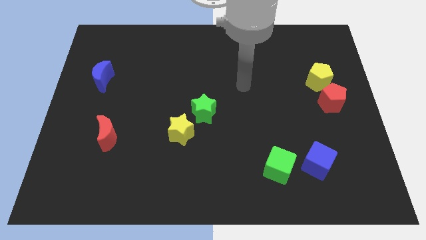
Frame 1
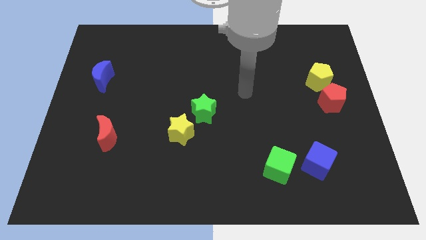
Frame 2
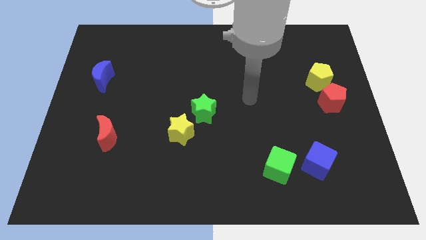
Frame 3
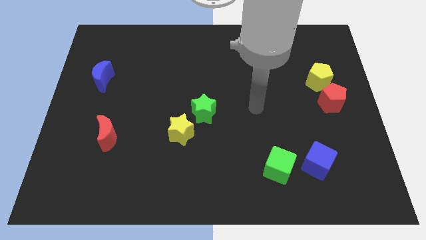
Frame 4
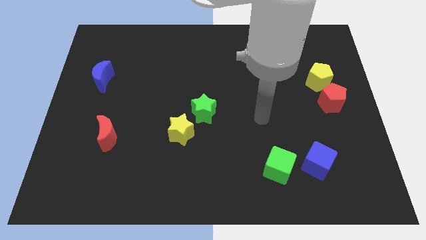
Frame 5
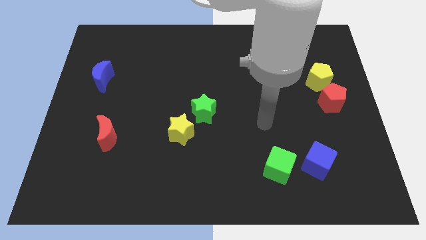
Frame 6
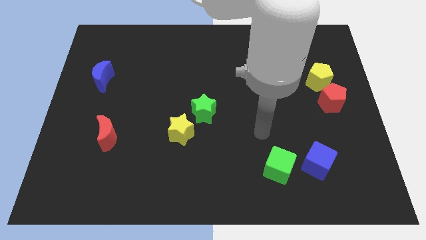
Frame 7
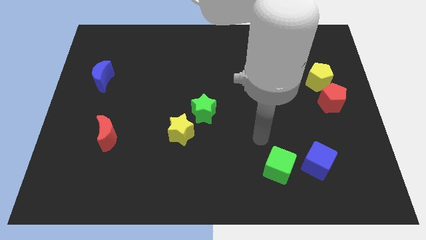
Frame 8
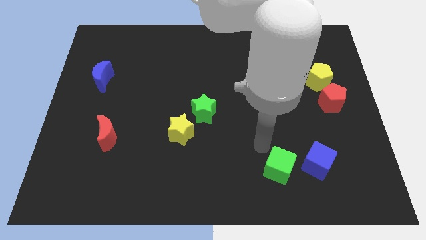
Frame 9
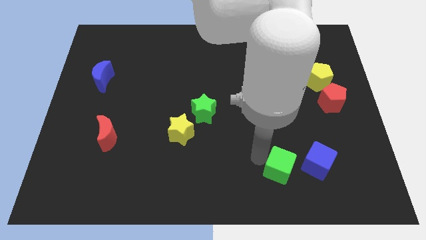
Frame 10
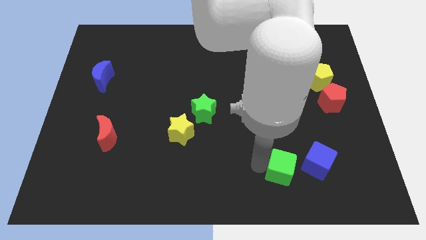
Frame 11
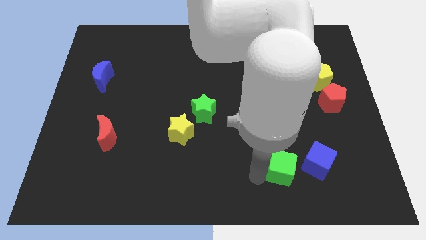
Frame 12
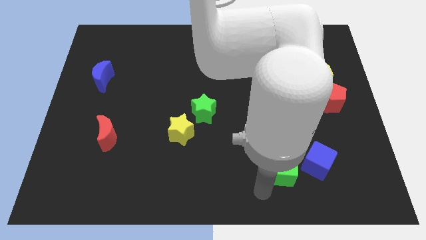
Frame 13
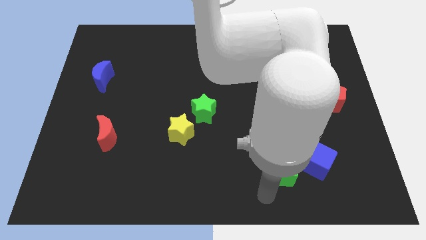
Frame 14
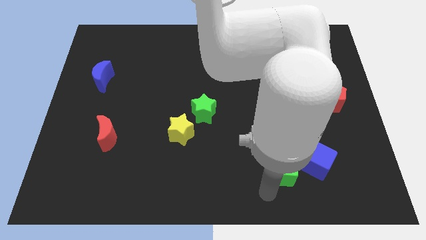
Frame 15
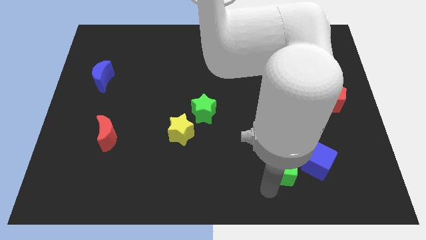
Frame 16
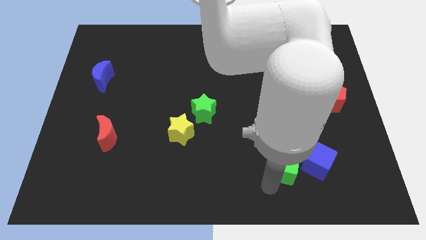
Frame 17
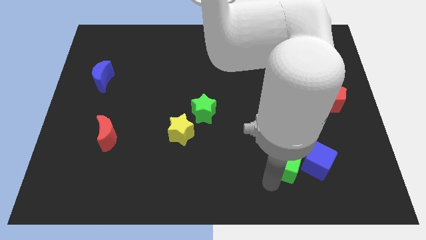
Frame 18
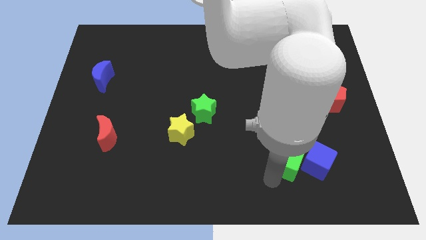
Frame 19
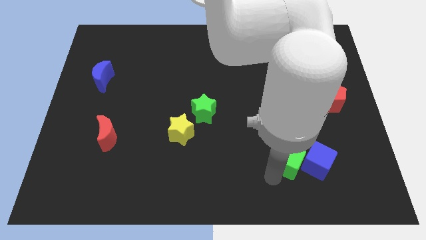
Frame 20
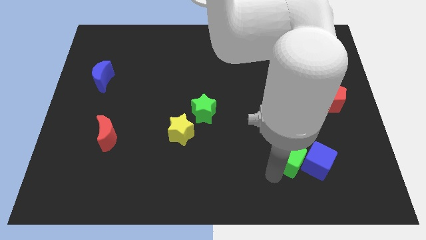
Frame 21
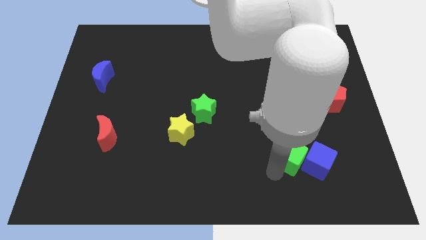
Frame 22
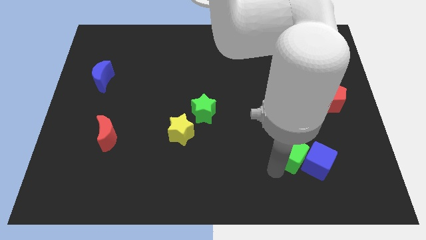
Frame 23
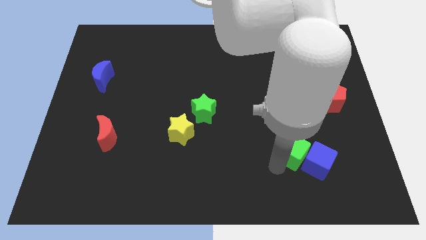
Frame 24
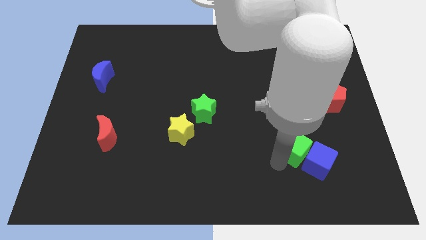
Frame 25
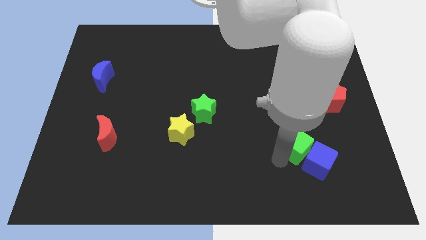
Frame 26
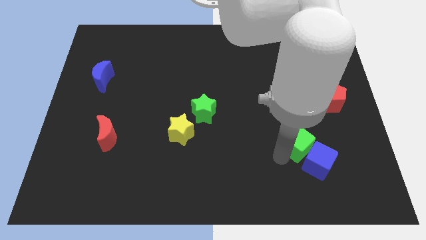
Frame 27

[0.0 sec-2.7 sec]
push the green cube somewhat up and to the right

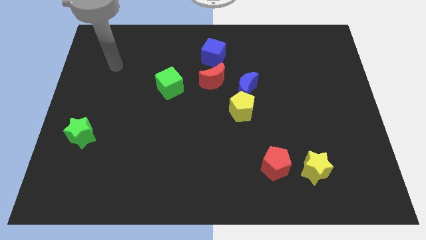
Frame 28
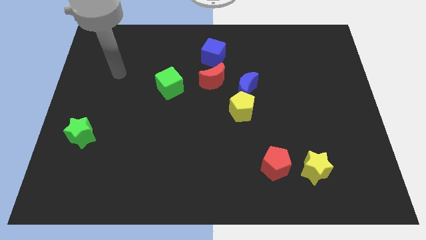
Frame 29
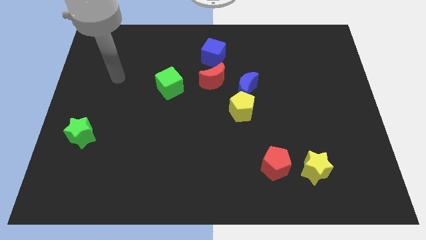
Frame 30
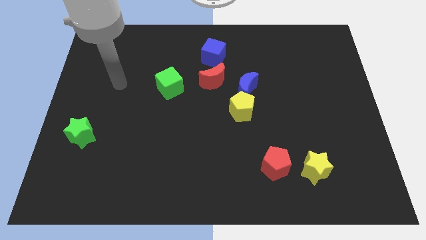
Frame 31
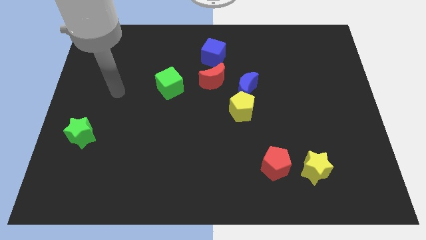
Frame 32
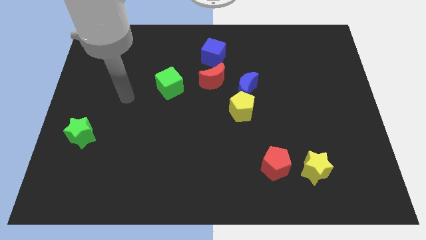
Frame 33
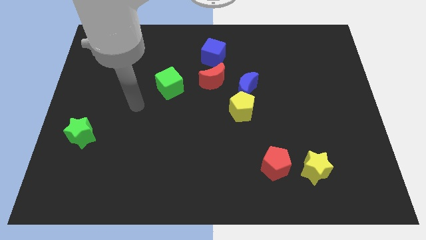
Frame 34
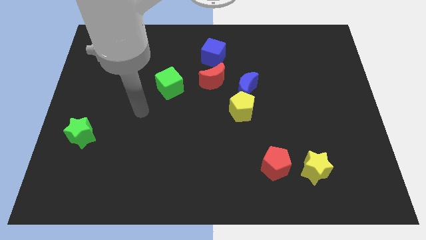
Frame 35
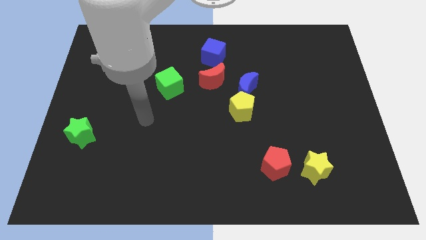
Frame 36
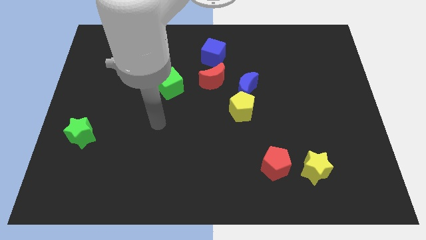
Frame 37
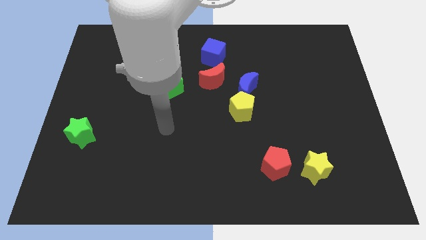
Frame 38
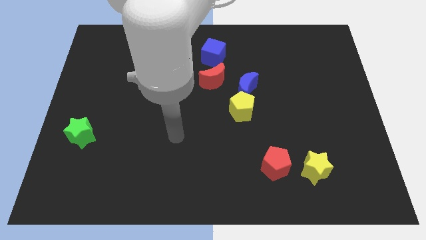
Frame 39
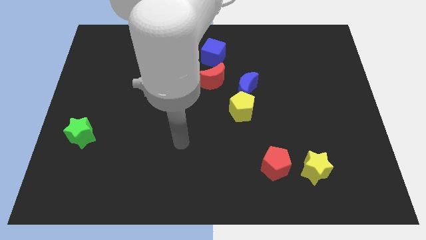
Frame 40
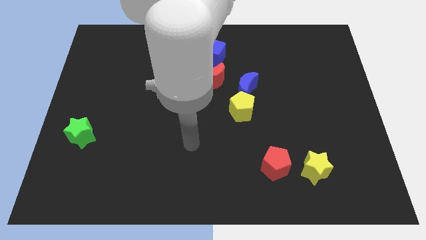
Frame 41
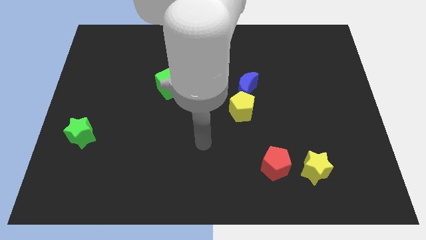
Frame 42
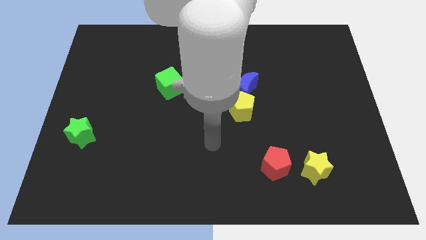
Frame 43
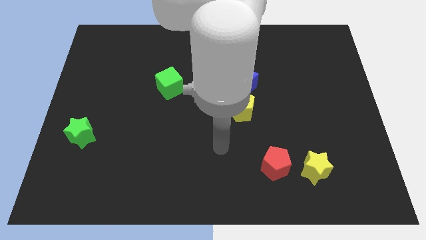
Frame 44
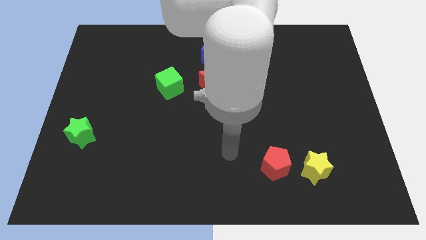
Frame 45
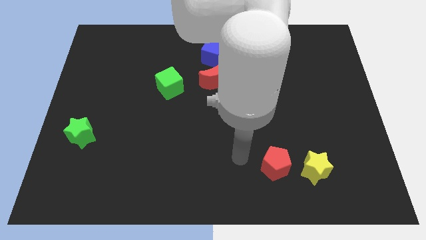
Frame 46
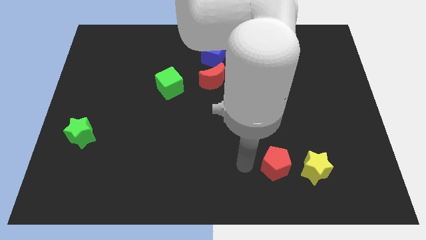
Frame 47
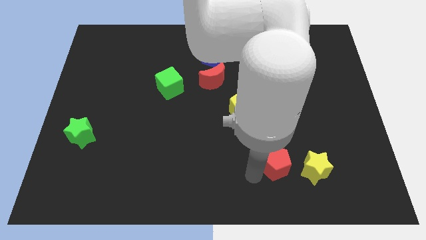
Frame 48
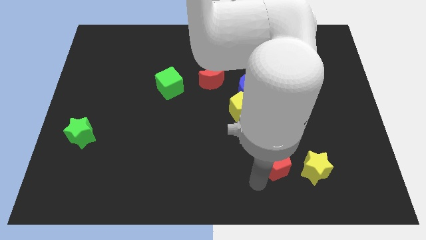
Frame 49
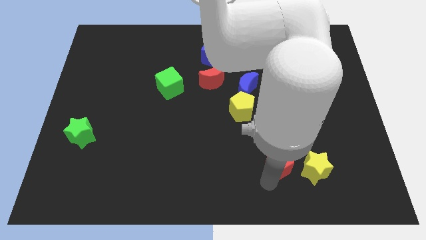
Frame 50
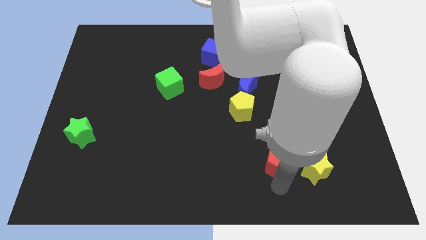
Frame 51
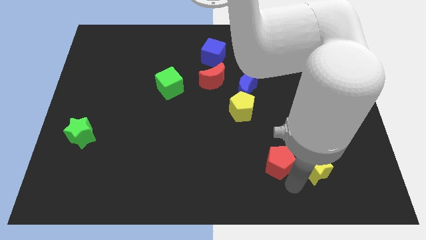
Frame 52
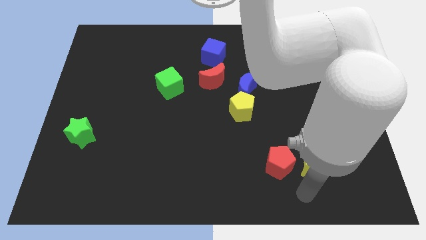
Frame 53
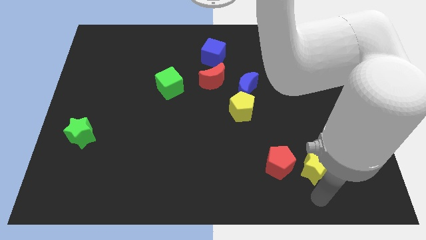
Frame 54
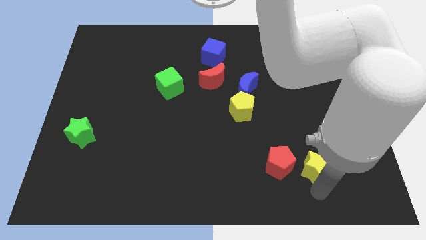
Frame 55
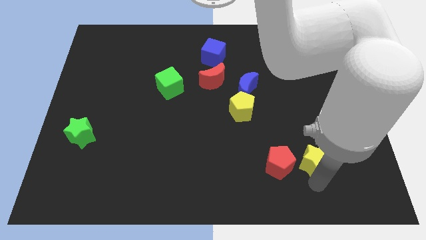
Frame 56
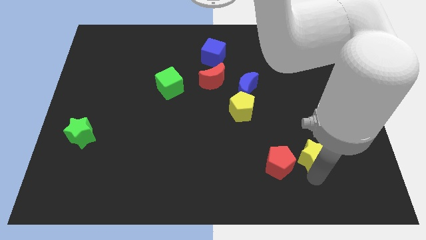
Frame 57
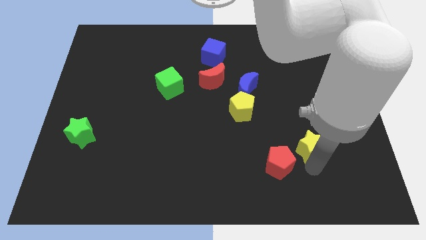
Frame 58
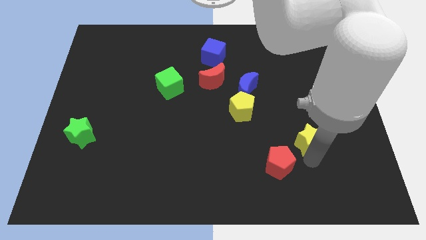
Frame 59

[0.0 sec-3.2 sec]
push the yellow star a little upwards

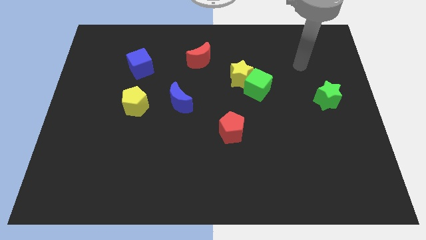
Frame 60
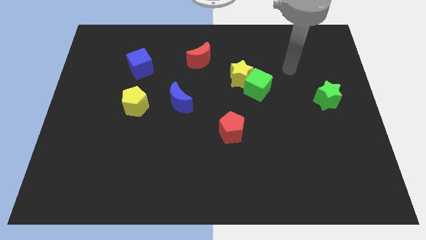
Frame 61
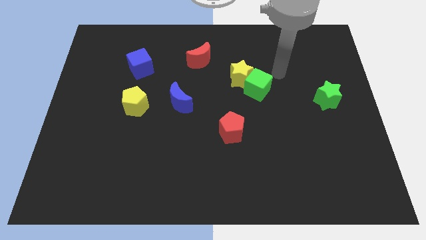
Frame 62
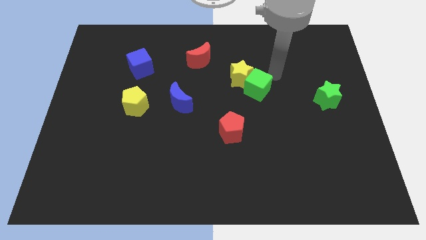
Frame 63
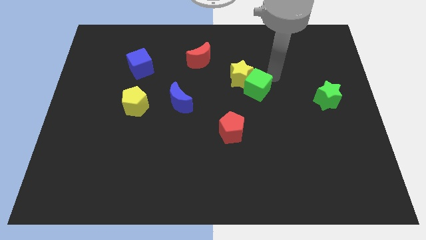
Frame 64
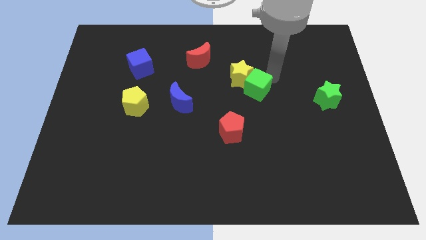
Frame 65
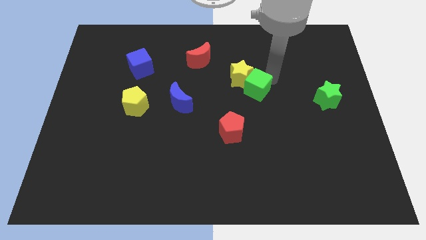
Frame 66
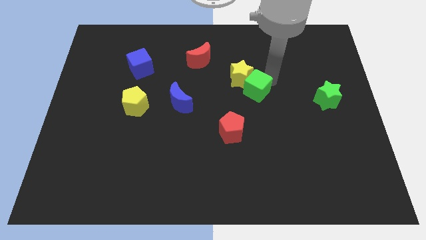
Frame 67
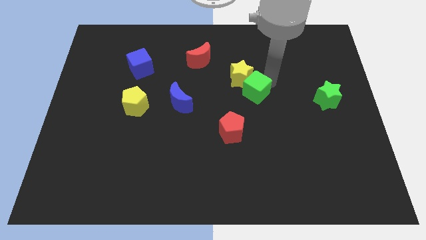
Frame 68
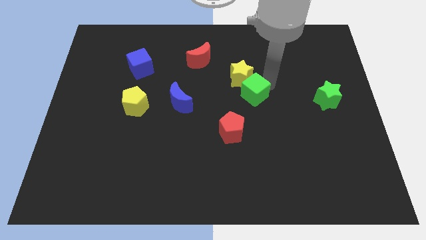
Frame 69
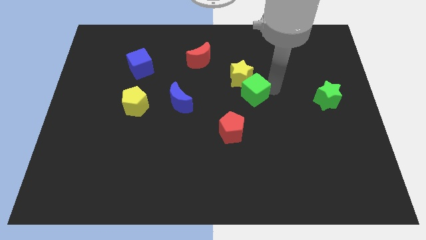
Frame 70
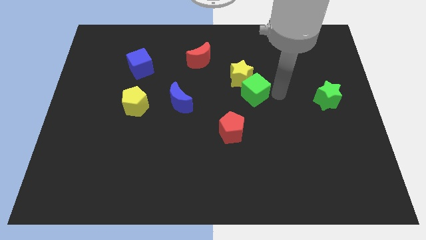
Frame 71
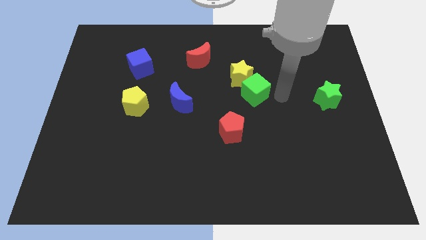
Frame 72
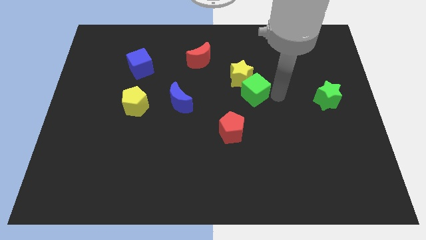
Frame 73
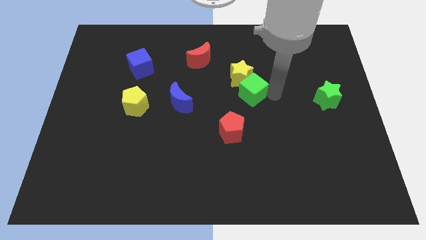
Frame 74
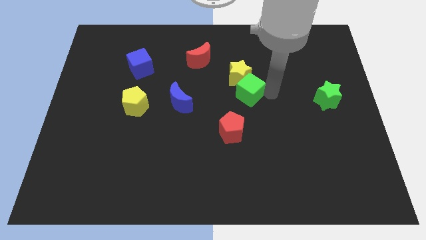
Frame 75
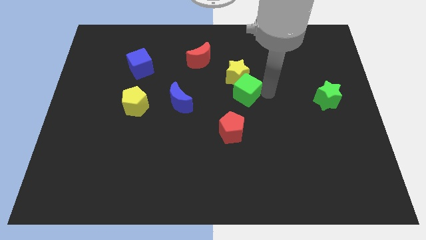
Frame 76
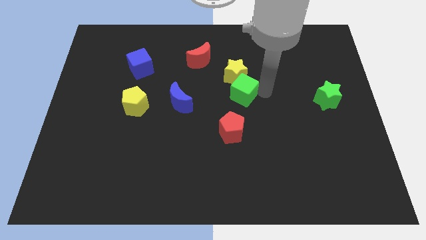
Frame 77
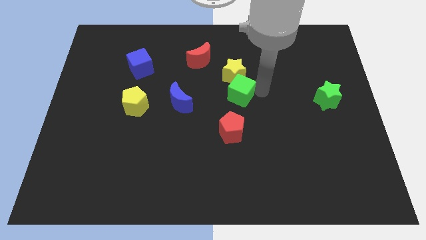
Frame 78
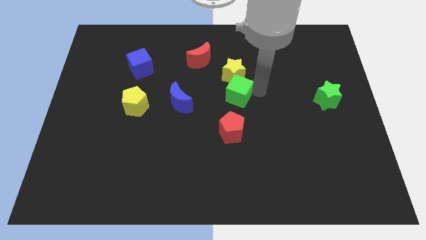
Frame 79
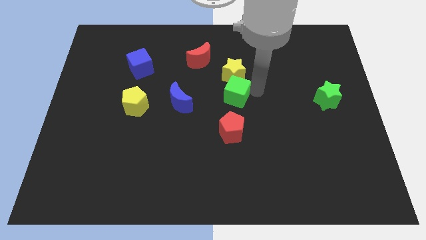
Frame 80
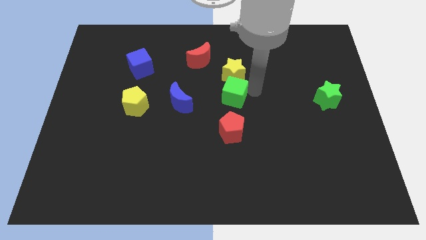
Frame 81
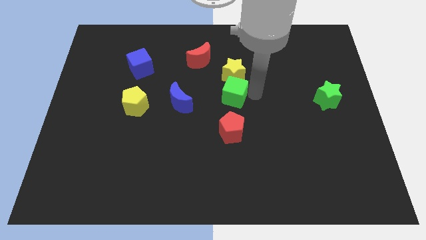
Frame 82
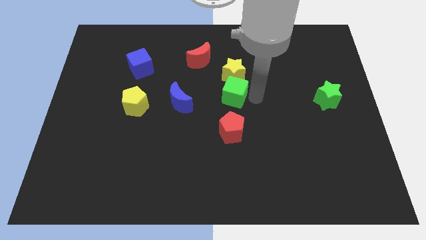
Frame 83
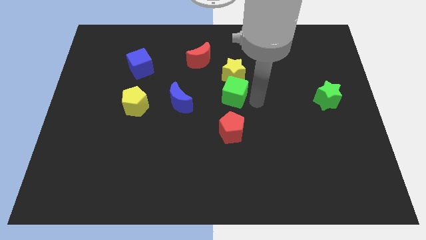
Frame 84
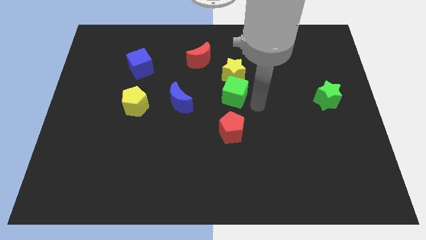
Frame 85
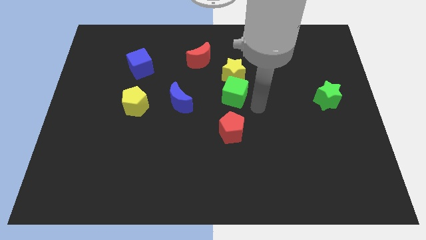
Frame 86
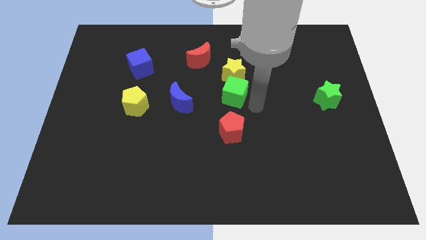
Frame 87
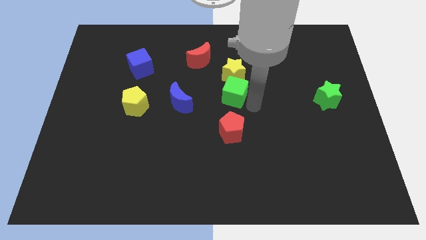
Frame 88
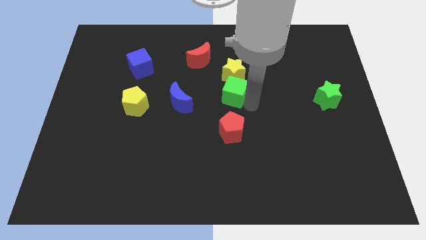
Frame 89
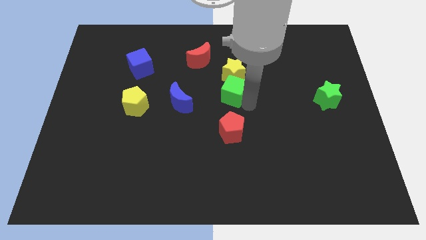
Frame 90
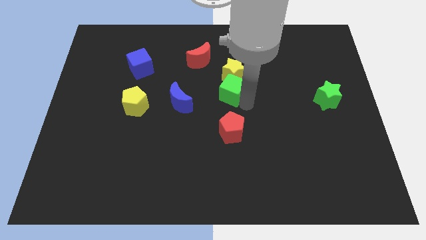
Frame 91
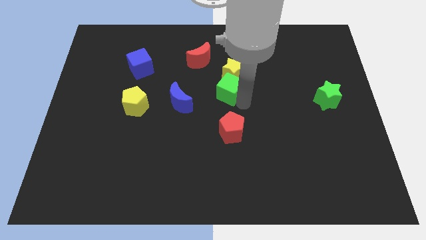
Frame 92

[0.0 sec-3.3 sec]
slide the green cube a little to the left
